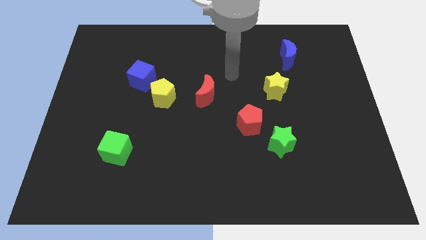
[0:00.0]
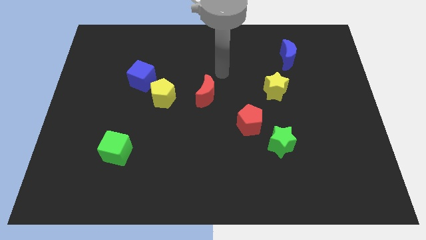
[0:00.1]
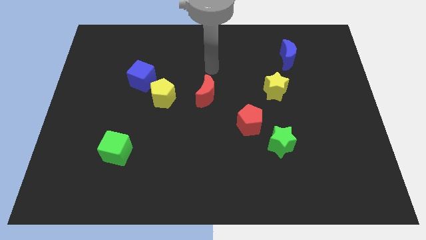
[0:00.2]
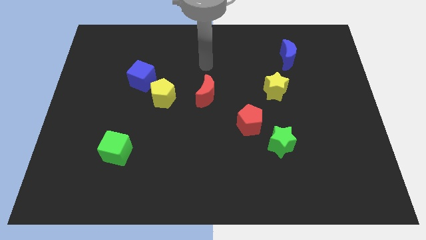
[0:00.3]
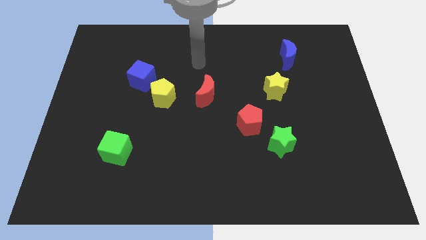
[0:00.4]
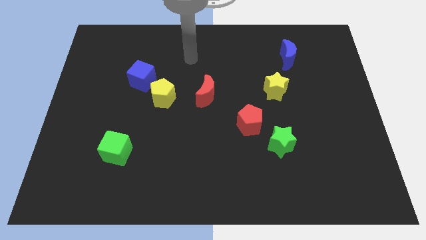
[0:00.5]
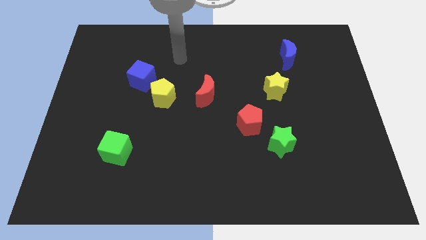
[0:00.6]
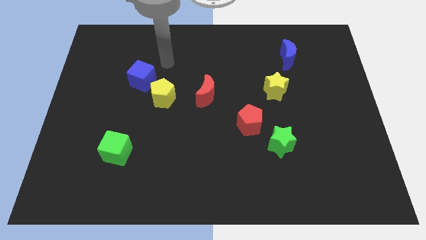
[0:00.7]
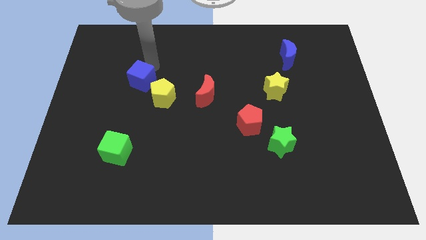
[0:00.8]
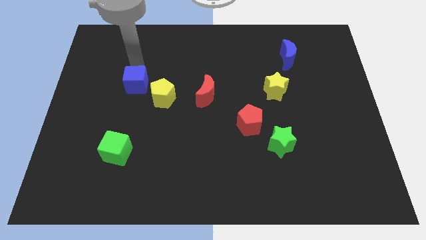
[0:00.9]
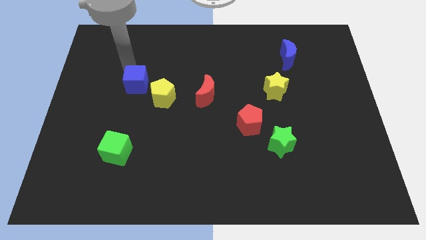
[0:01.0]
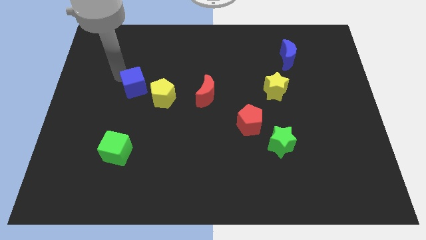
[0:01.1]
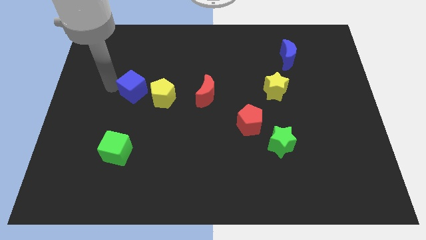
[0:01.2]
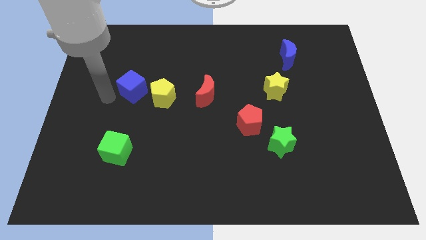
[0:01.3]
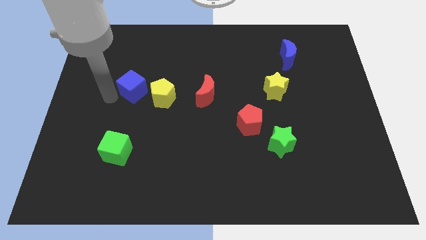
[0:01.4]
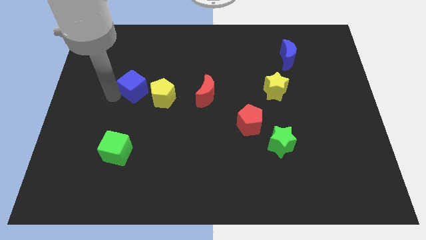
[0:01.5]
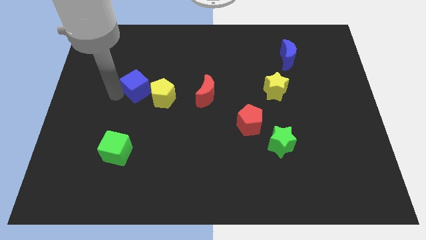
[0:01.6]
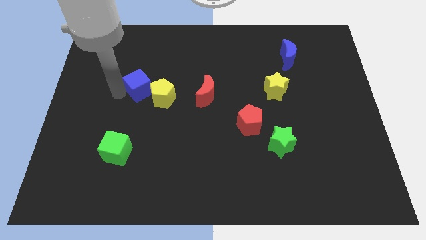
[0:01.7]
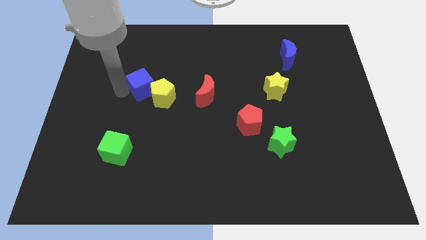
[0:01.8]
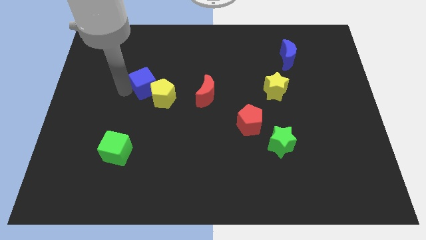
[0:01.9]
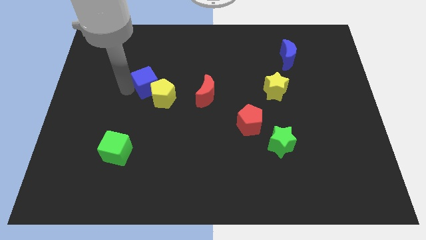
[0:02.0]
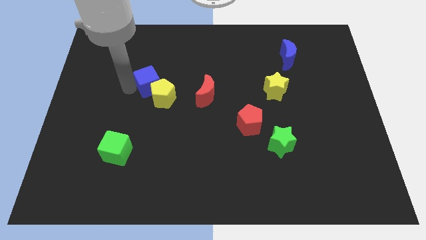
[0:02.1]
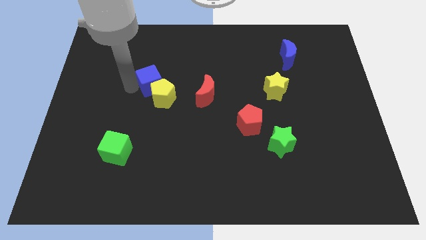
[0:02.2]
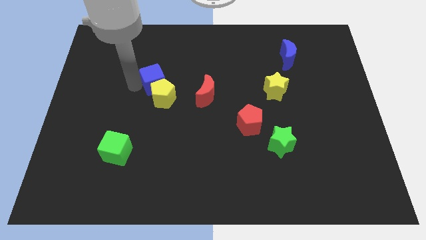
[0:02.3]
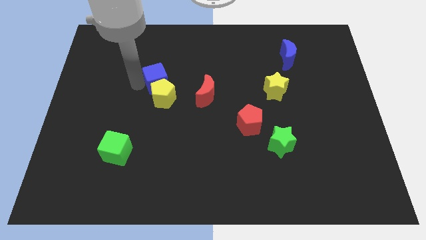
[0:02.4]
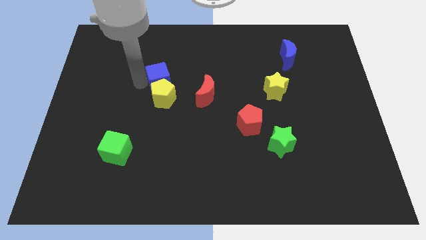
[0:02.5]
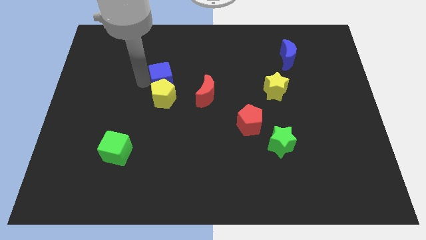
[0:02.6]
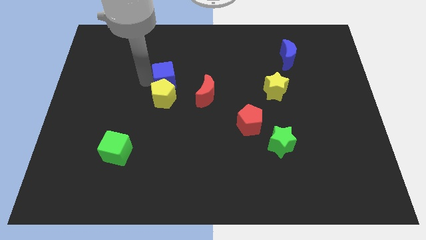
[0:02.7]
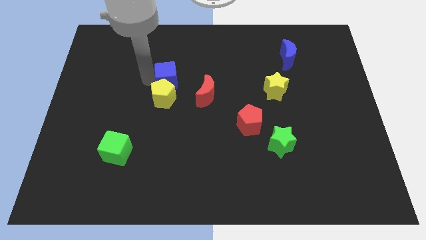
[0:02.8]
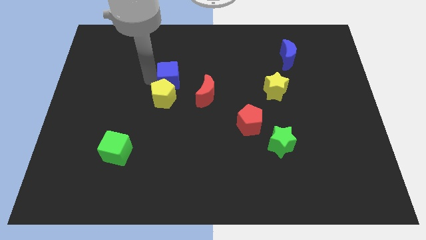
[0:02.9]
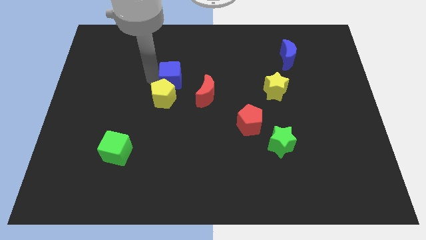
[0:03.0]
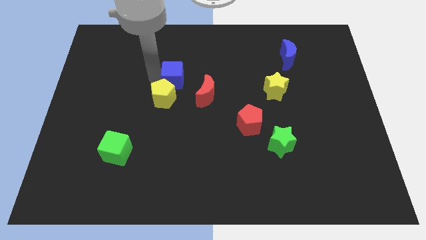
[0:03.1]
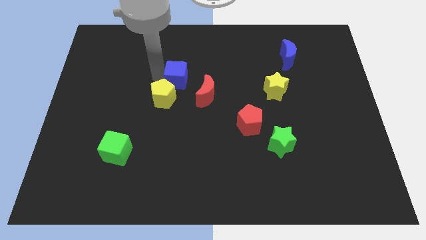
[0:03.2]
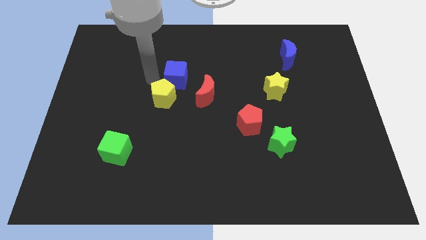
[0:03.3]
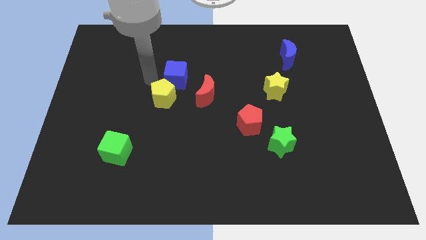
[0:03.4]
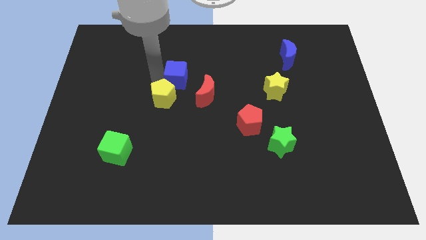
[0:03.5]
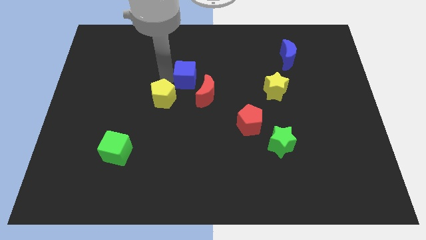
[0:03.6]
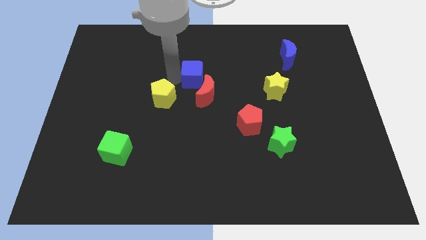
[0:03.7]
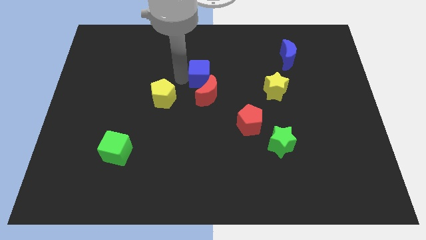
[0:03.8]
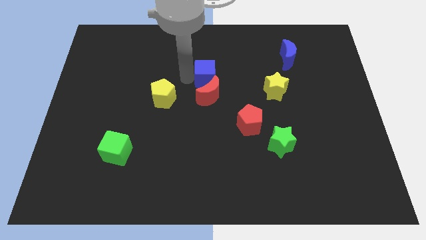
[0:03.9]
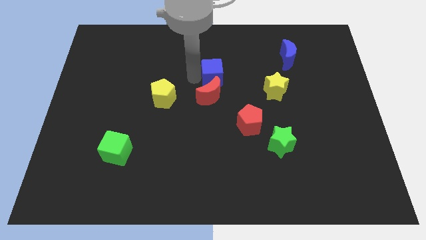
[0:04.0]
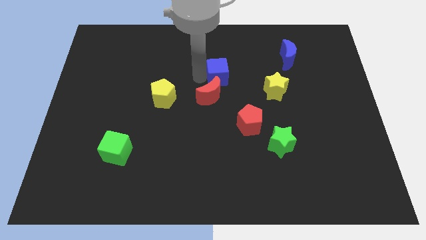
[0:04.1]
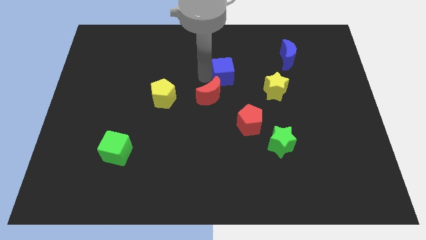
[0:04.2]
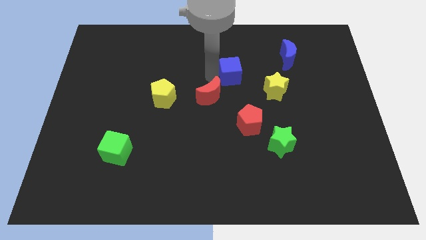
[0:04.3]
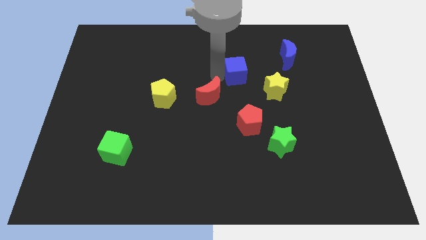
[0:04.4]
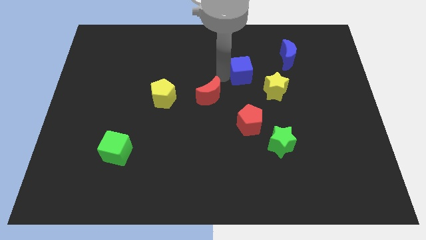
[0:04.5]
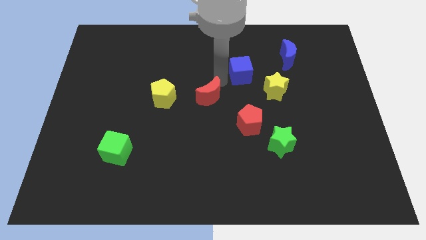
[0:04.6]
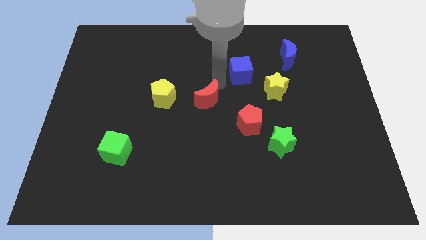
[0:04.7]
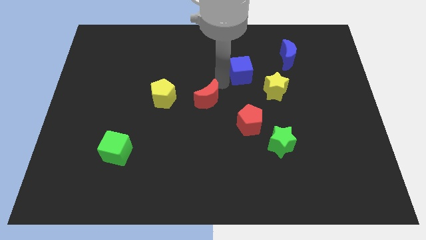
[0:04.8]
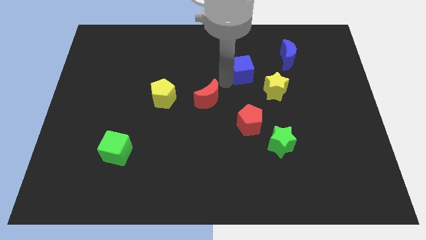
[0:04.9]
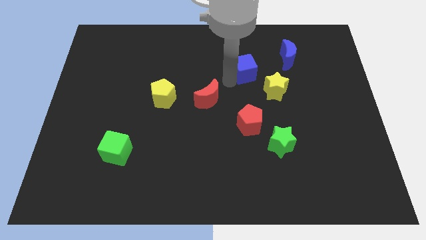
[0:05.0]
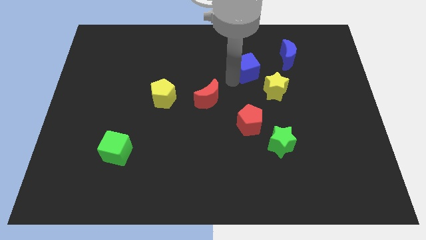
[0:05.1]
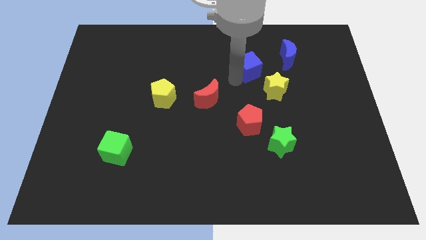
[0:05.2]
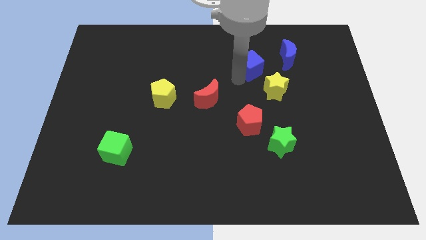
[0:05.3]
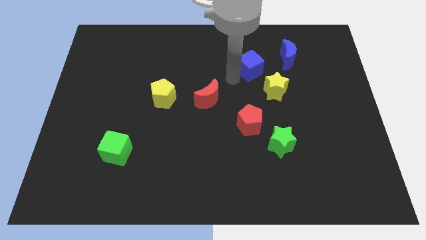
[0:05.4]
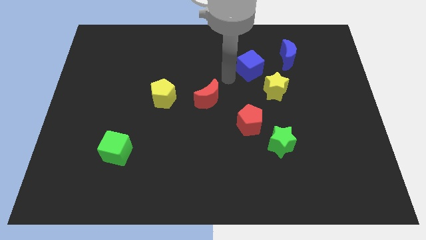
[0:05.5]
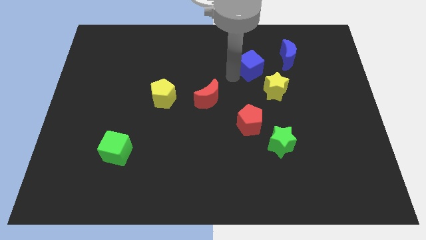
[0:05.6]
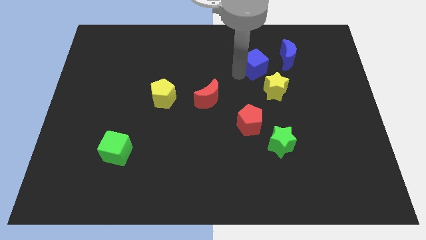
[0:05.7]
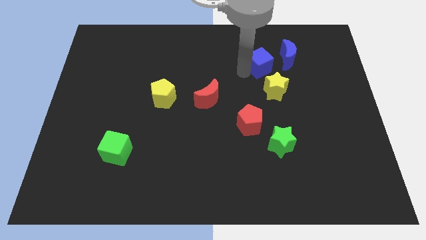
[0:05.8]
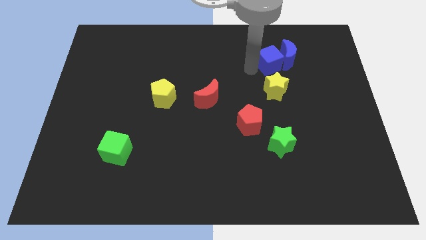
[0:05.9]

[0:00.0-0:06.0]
push the blue cube towards the blue moon

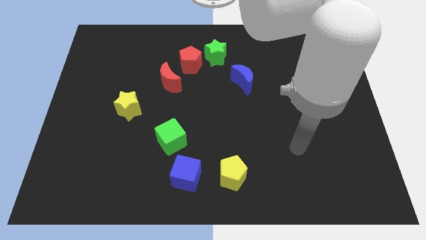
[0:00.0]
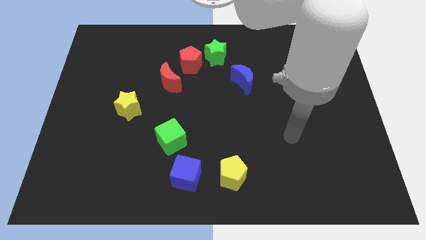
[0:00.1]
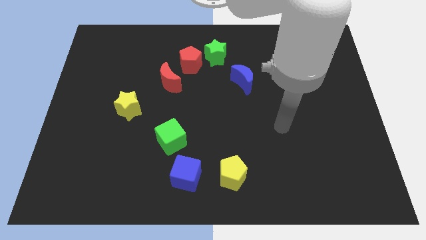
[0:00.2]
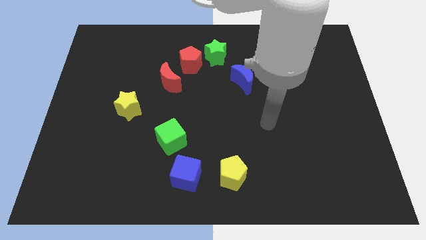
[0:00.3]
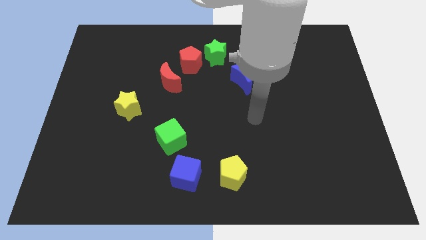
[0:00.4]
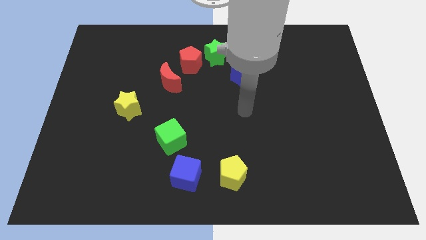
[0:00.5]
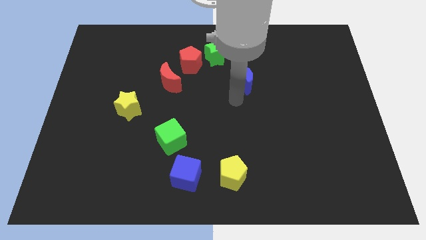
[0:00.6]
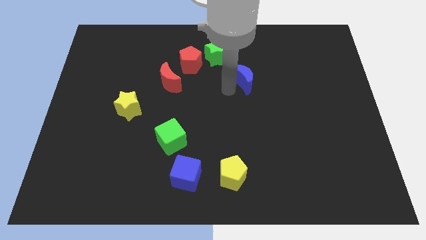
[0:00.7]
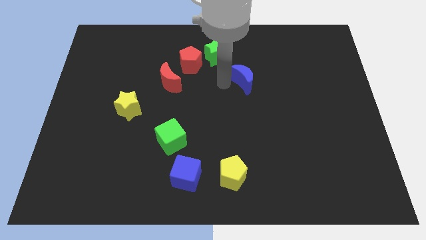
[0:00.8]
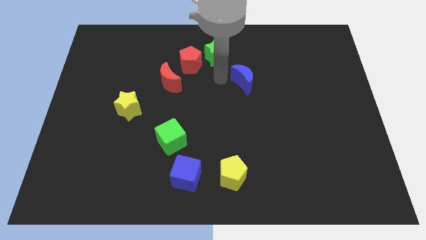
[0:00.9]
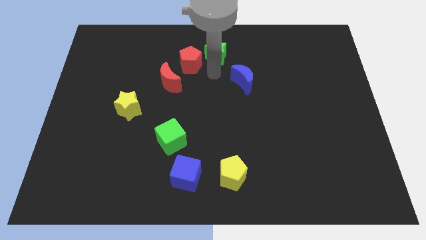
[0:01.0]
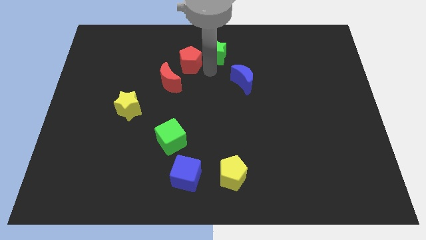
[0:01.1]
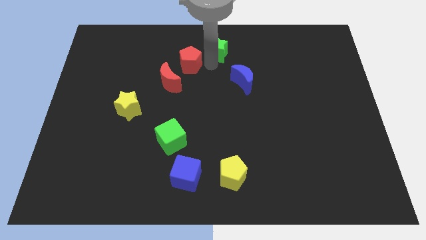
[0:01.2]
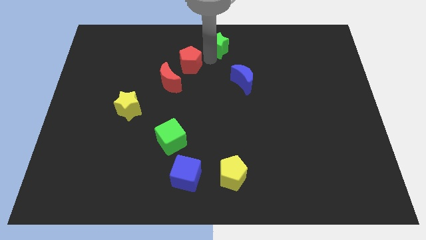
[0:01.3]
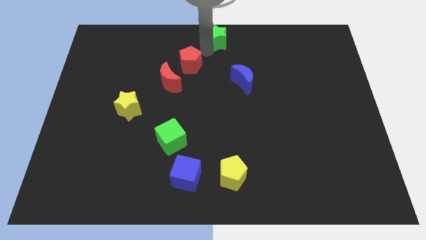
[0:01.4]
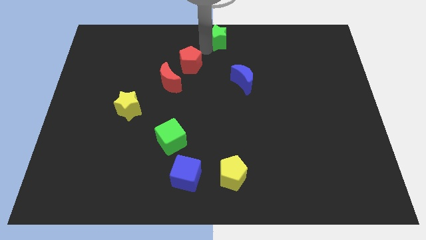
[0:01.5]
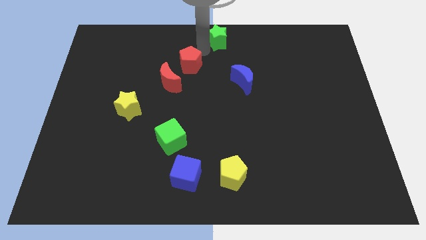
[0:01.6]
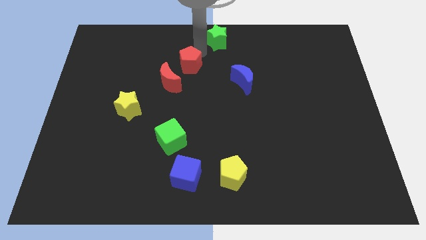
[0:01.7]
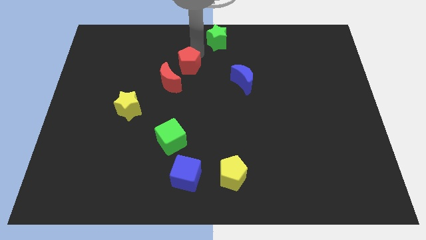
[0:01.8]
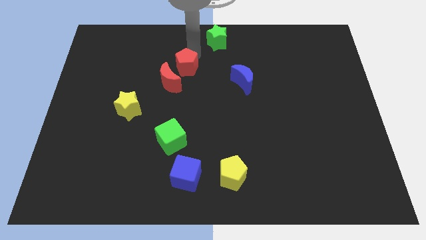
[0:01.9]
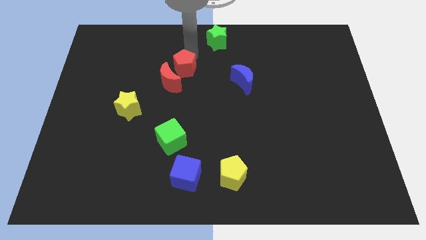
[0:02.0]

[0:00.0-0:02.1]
push the red pentagon towards the red moon
